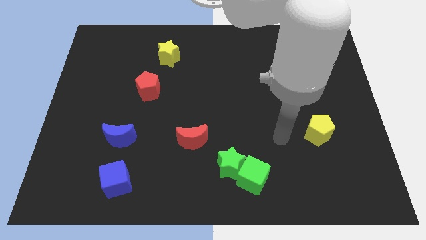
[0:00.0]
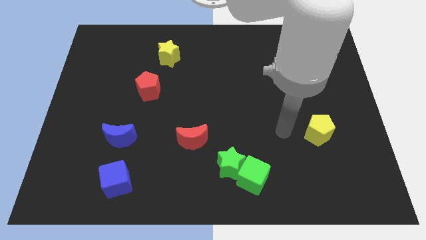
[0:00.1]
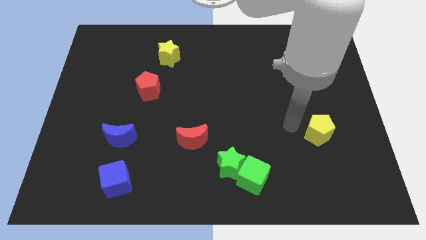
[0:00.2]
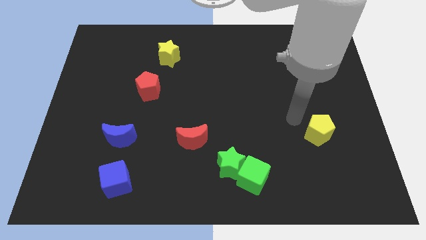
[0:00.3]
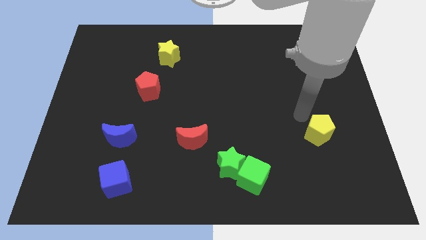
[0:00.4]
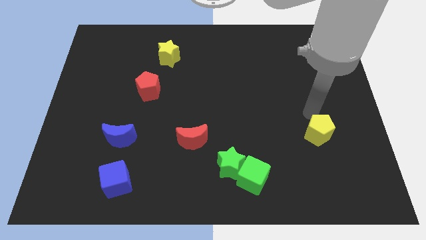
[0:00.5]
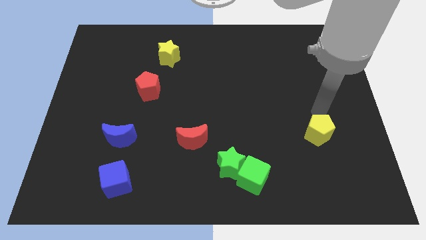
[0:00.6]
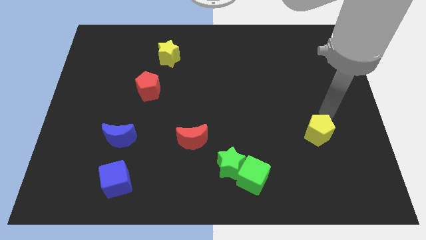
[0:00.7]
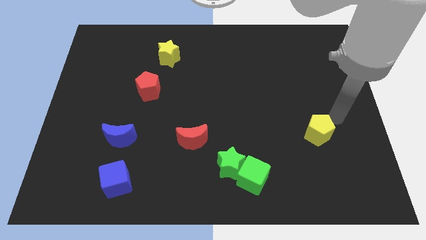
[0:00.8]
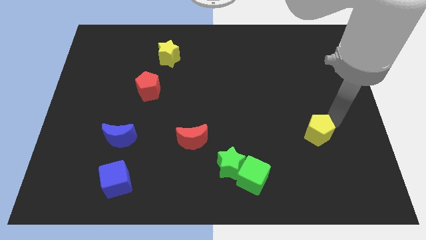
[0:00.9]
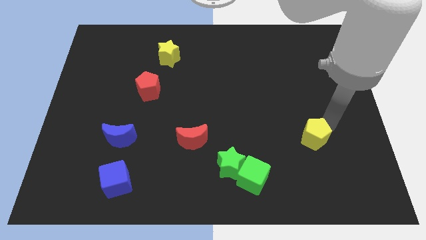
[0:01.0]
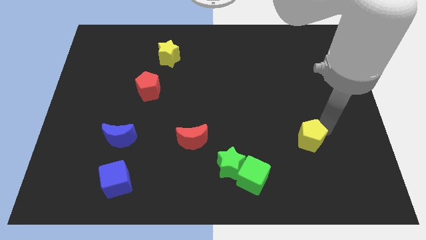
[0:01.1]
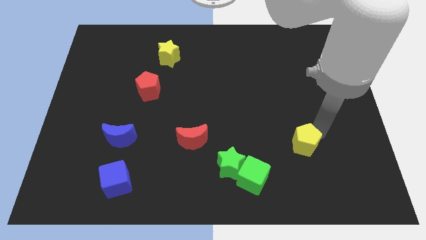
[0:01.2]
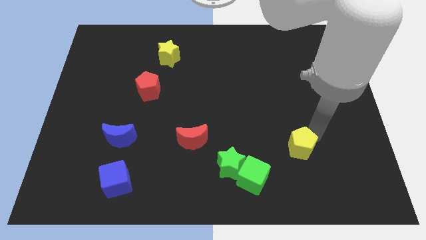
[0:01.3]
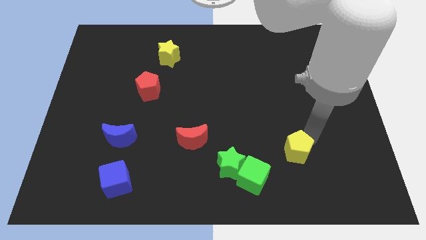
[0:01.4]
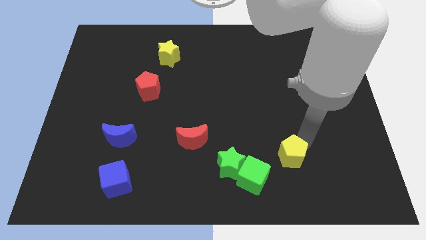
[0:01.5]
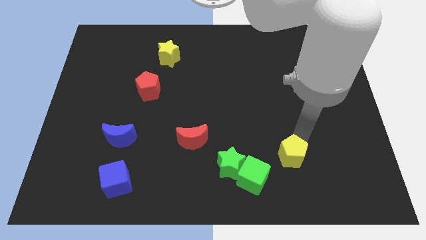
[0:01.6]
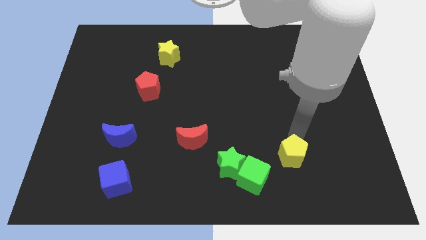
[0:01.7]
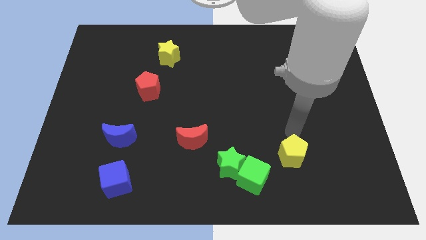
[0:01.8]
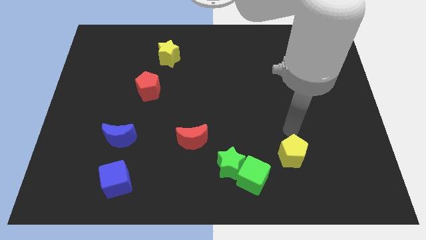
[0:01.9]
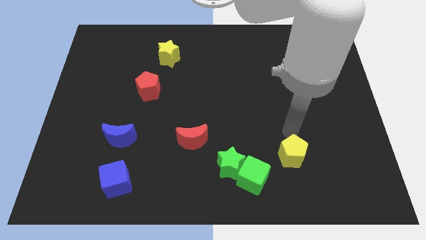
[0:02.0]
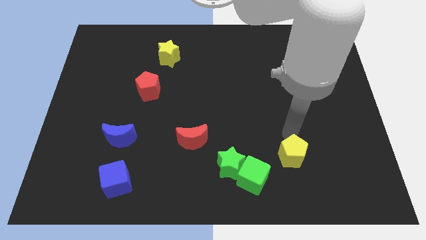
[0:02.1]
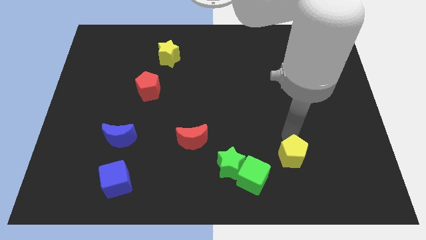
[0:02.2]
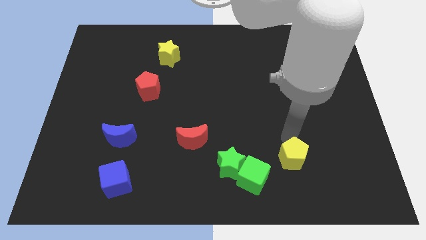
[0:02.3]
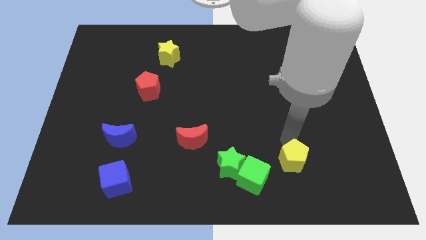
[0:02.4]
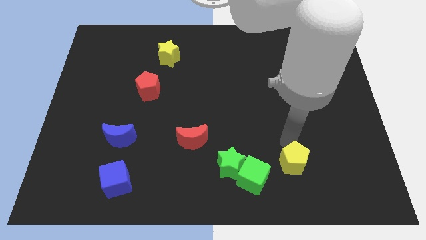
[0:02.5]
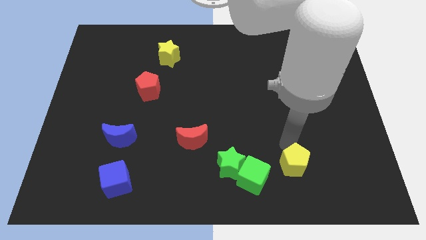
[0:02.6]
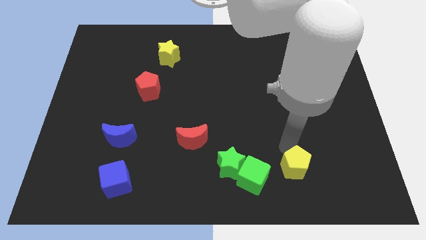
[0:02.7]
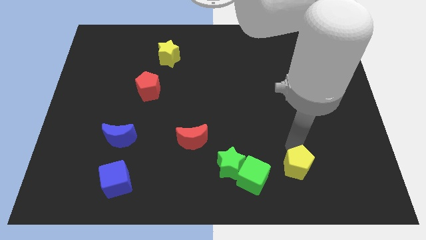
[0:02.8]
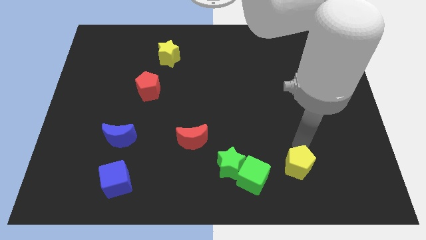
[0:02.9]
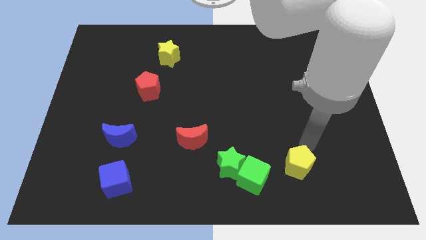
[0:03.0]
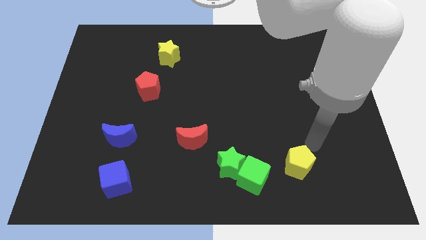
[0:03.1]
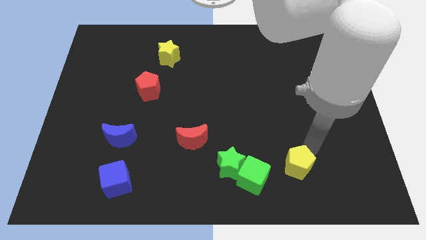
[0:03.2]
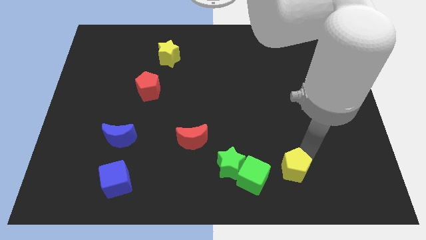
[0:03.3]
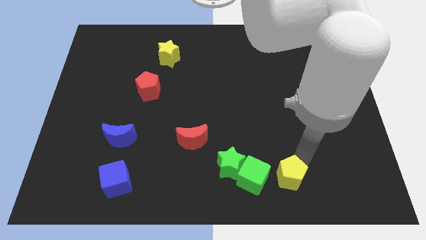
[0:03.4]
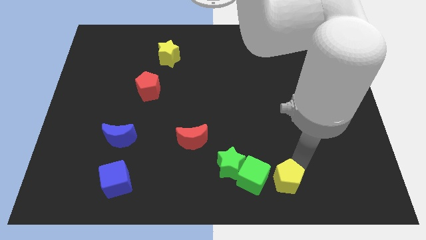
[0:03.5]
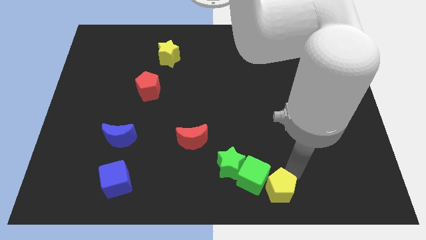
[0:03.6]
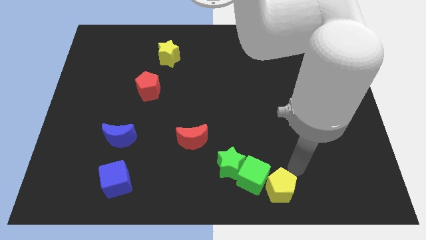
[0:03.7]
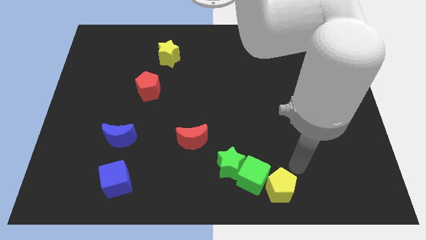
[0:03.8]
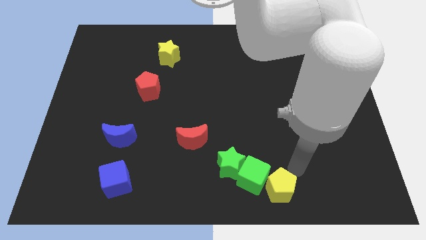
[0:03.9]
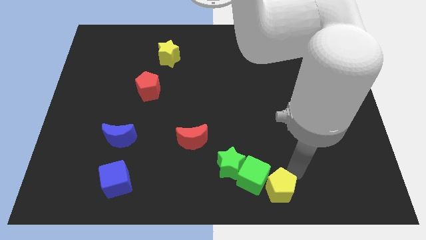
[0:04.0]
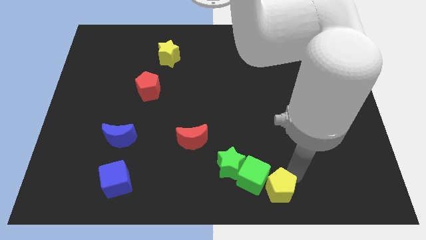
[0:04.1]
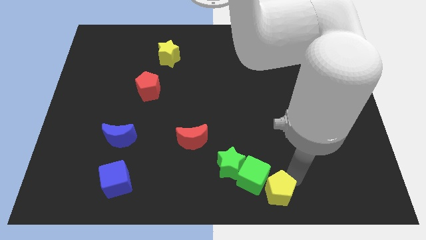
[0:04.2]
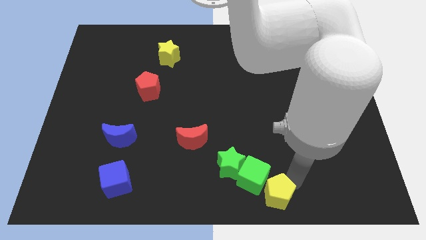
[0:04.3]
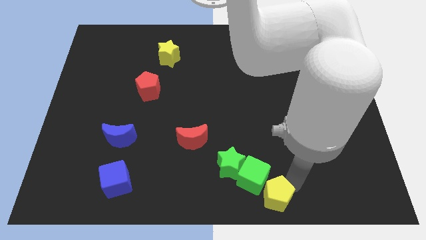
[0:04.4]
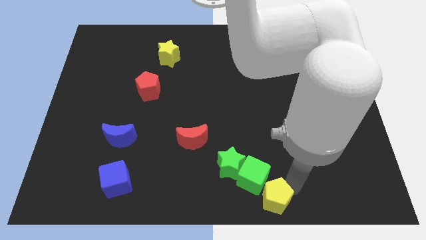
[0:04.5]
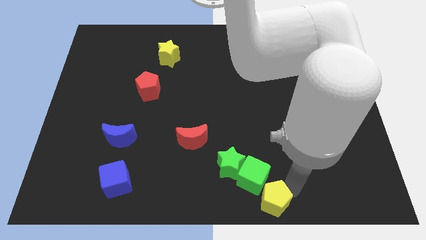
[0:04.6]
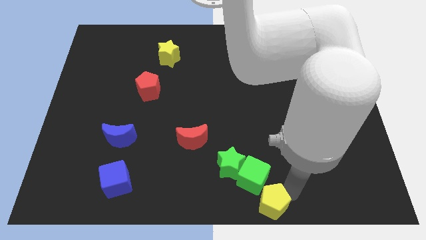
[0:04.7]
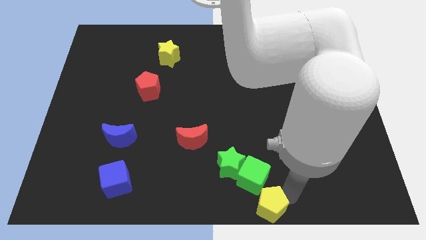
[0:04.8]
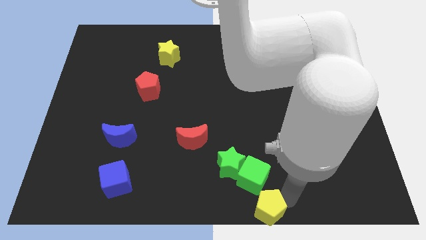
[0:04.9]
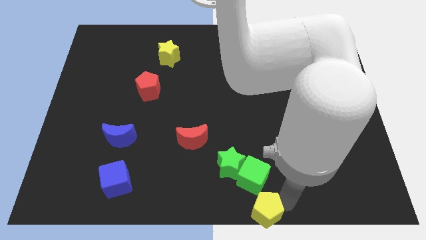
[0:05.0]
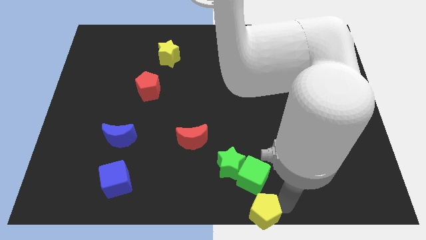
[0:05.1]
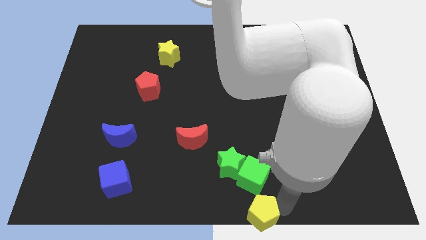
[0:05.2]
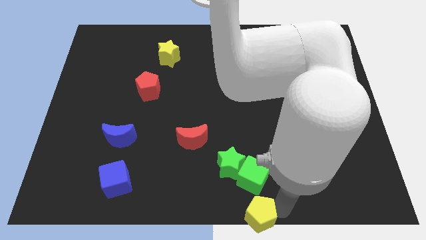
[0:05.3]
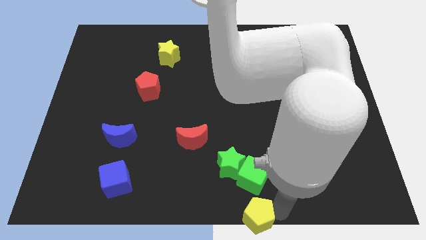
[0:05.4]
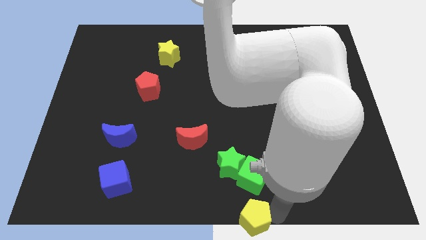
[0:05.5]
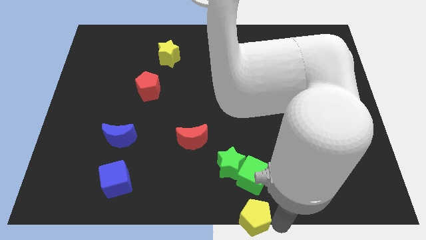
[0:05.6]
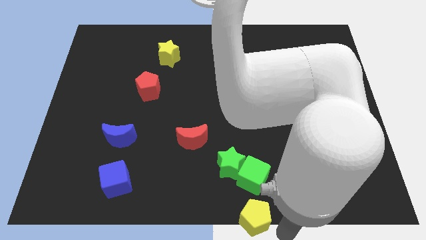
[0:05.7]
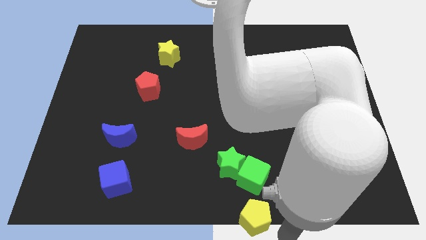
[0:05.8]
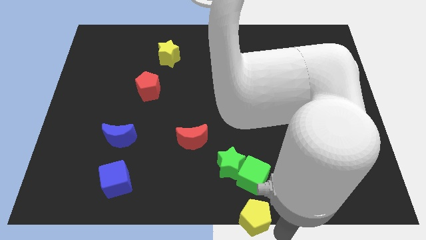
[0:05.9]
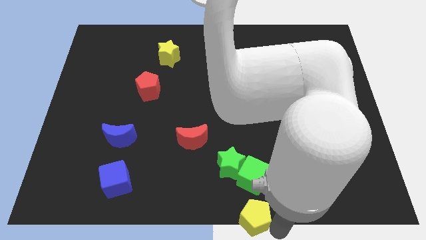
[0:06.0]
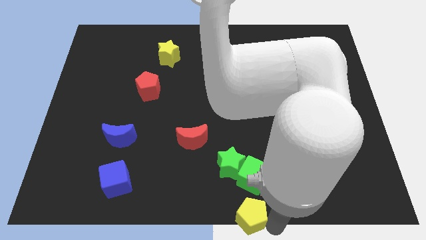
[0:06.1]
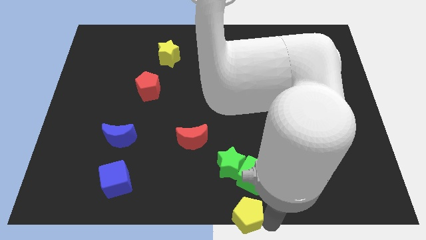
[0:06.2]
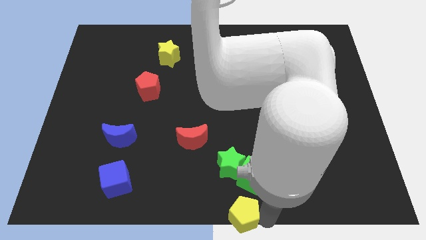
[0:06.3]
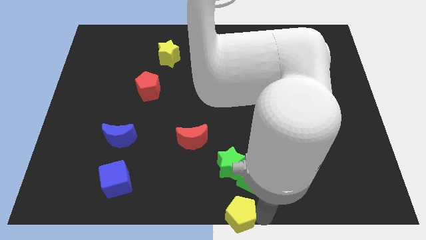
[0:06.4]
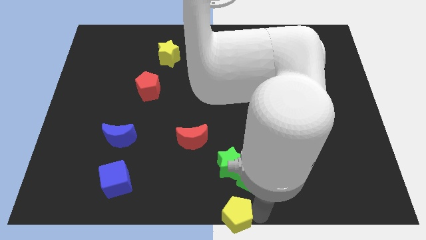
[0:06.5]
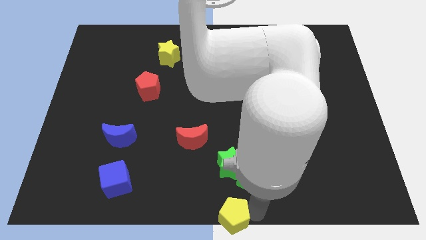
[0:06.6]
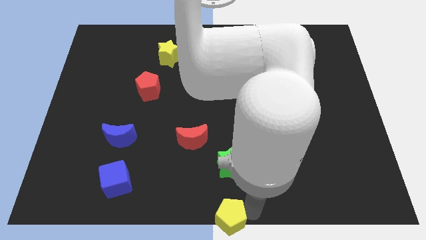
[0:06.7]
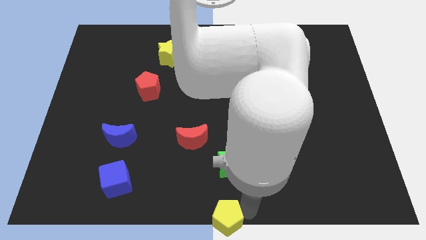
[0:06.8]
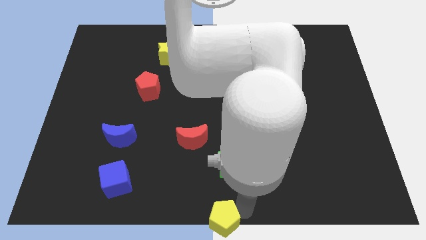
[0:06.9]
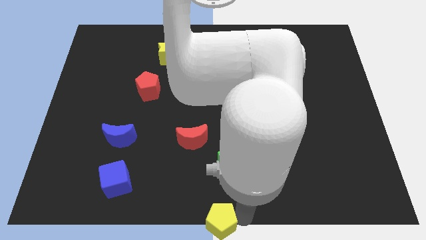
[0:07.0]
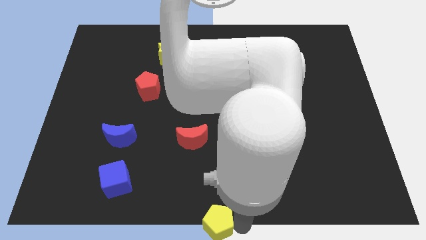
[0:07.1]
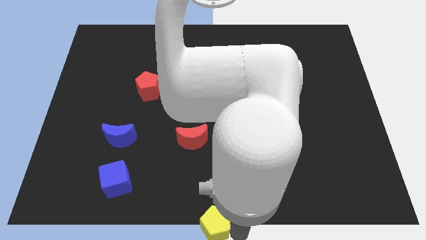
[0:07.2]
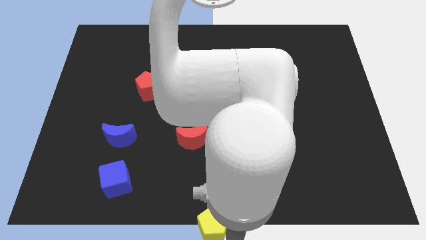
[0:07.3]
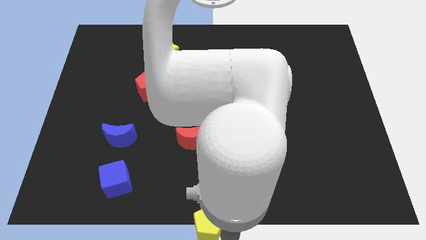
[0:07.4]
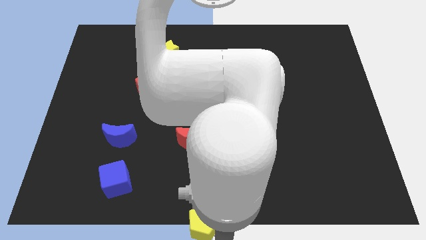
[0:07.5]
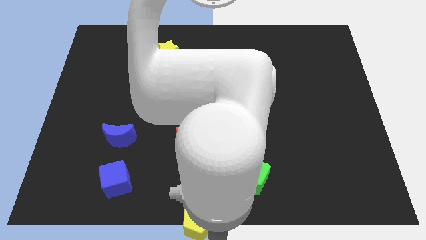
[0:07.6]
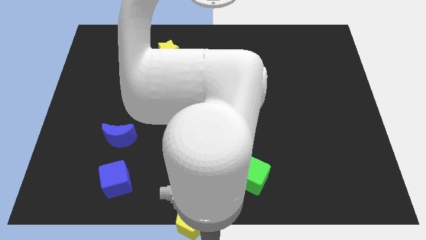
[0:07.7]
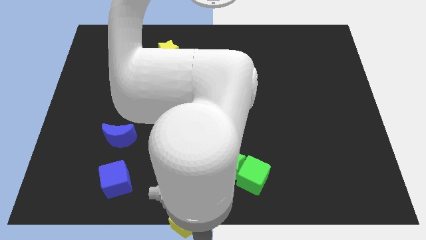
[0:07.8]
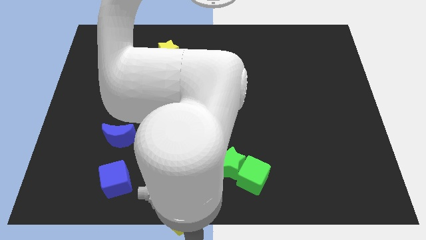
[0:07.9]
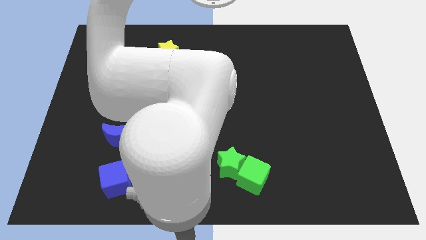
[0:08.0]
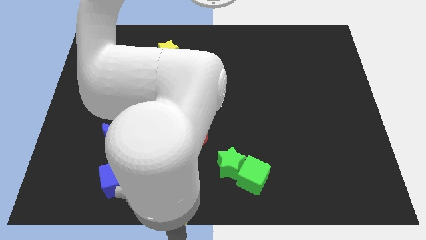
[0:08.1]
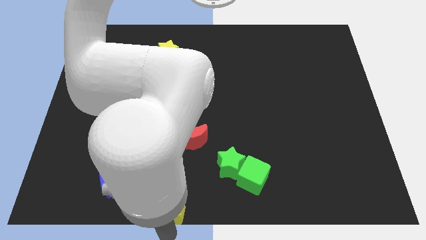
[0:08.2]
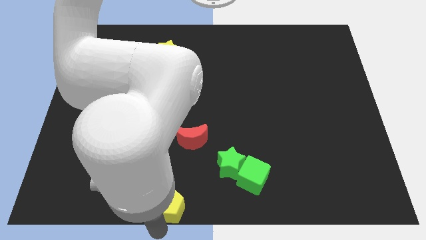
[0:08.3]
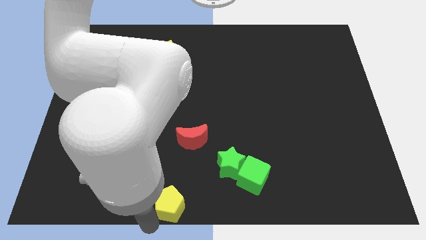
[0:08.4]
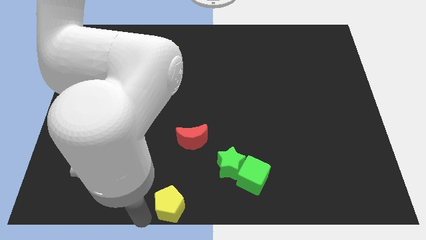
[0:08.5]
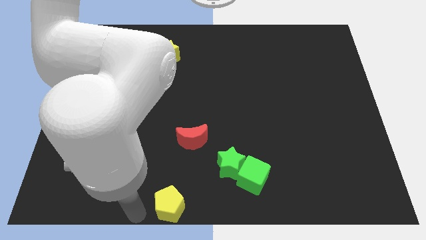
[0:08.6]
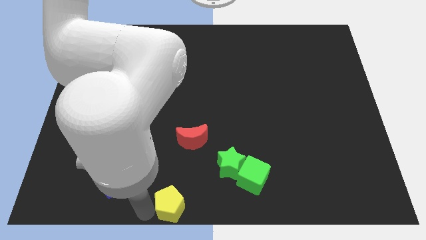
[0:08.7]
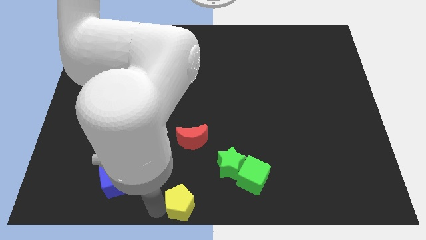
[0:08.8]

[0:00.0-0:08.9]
put the yellow pentagon below the red moon
